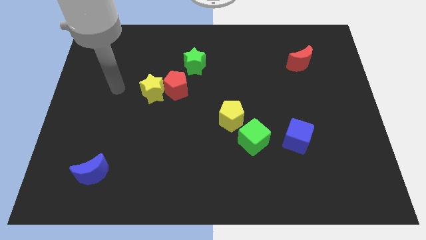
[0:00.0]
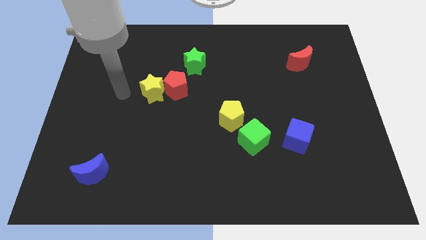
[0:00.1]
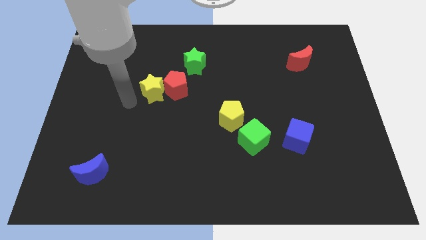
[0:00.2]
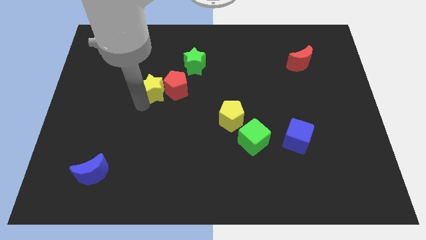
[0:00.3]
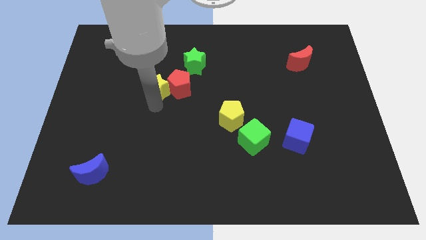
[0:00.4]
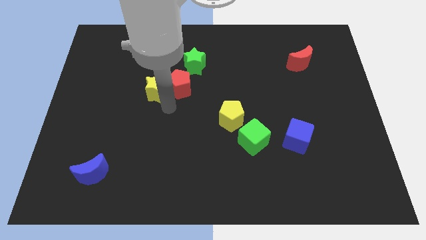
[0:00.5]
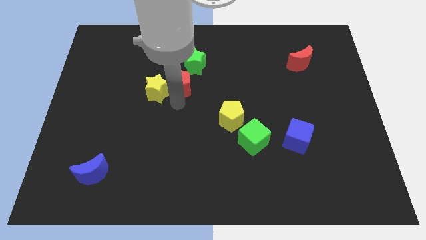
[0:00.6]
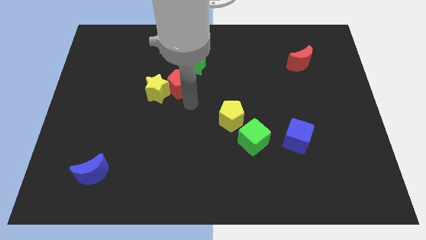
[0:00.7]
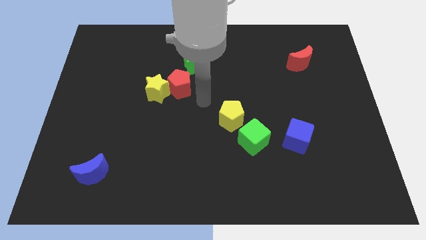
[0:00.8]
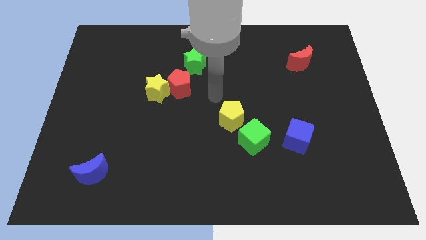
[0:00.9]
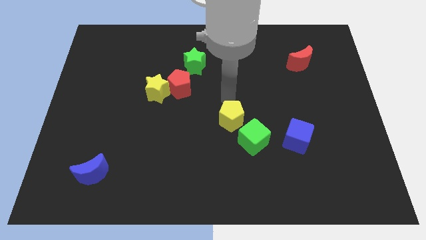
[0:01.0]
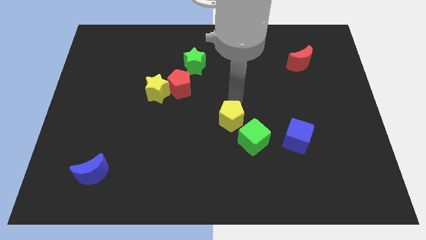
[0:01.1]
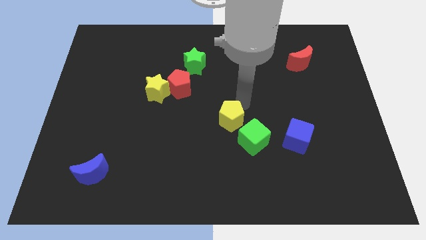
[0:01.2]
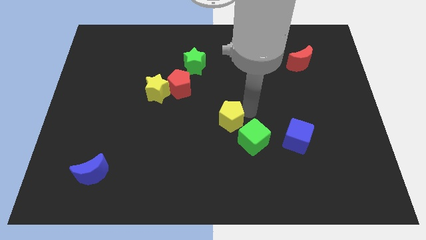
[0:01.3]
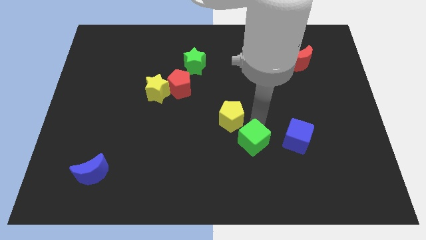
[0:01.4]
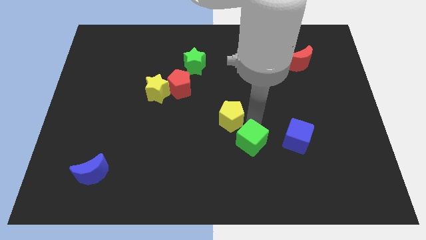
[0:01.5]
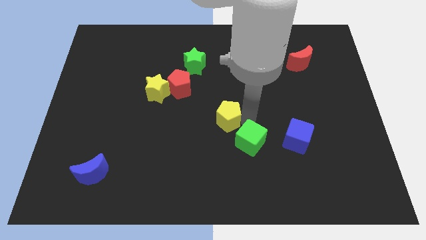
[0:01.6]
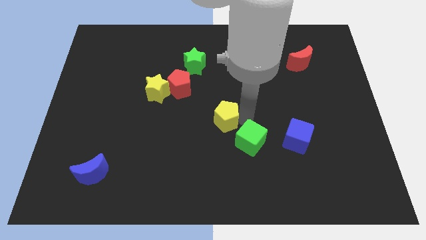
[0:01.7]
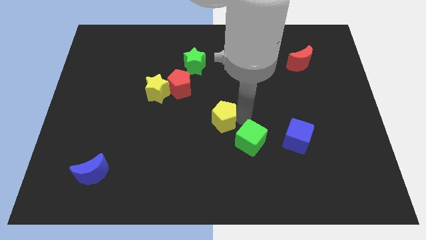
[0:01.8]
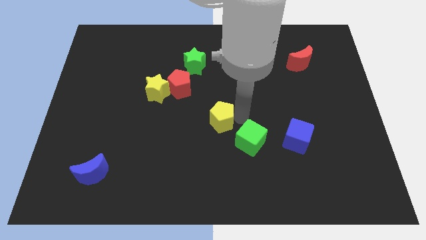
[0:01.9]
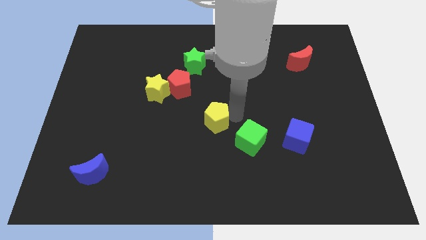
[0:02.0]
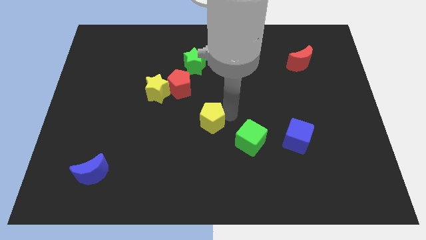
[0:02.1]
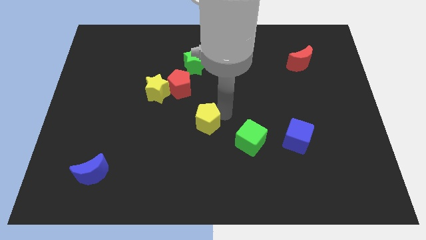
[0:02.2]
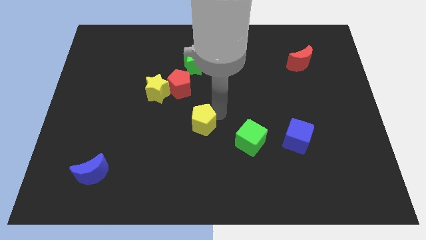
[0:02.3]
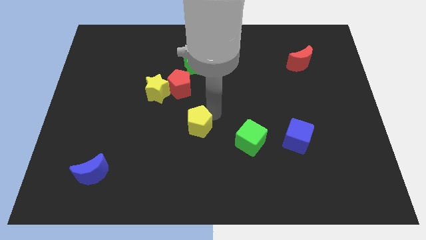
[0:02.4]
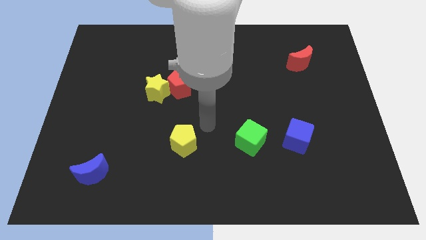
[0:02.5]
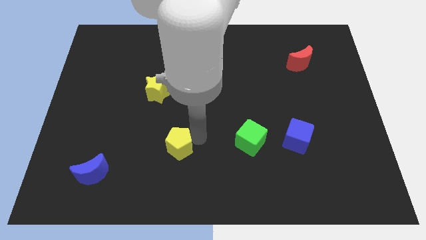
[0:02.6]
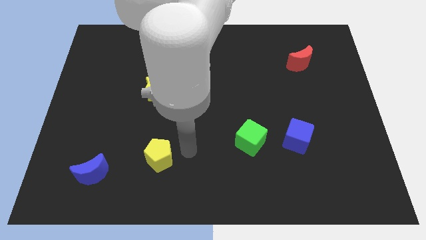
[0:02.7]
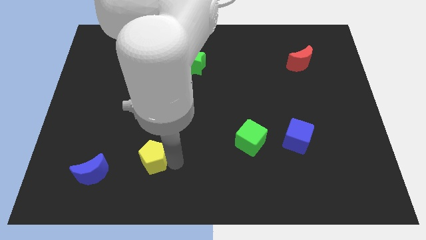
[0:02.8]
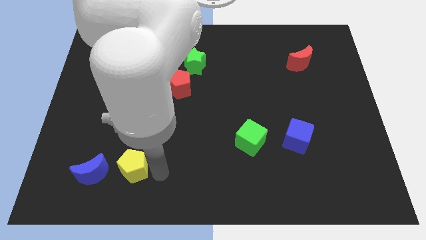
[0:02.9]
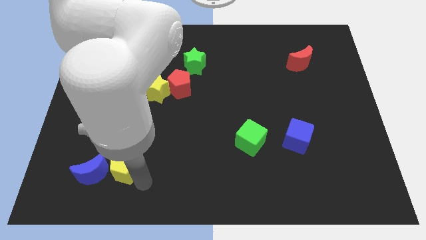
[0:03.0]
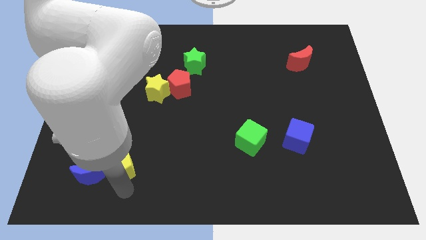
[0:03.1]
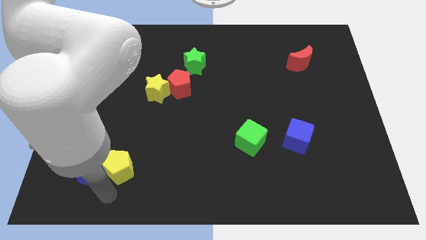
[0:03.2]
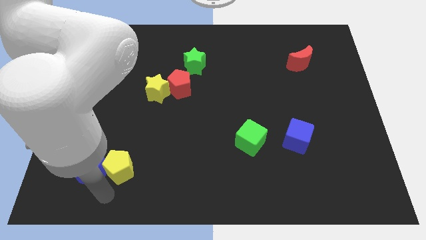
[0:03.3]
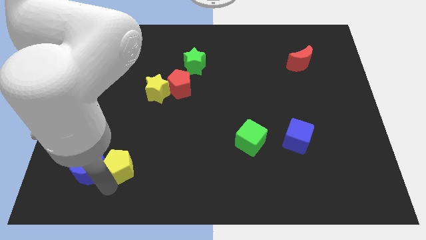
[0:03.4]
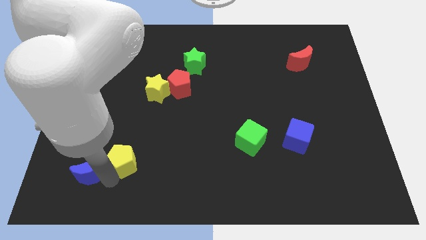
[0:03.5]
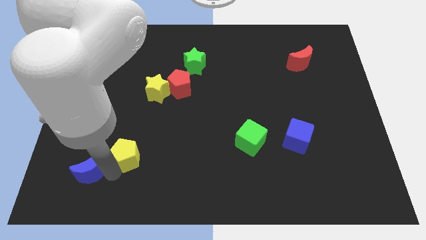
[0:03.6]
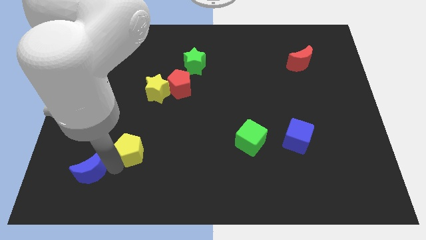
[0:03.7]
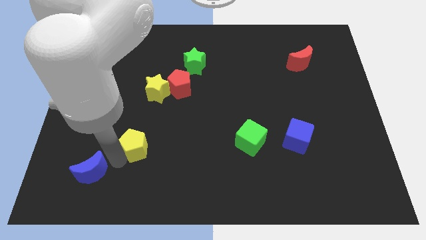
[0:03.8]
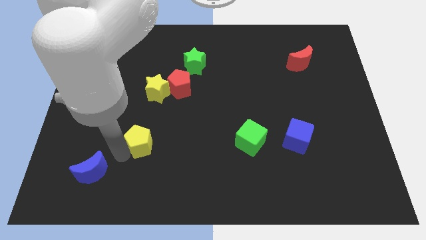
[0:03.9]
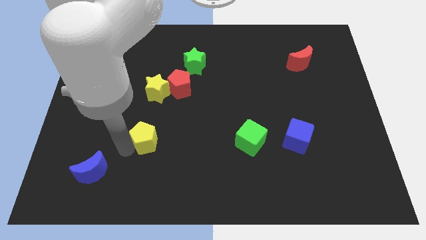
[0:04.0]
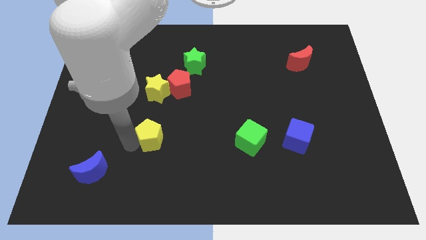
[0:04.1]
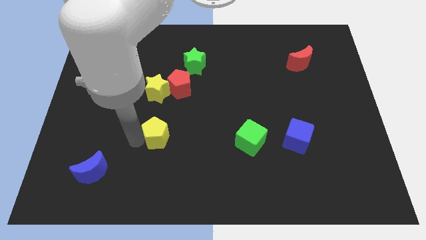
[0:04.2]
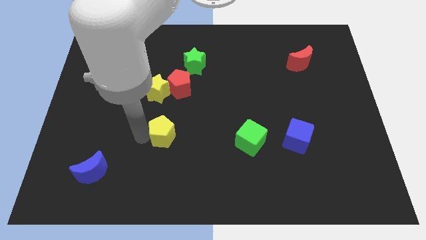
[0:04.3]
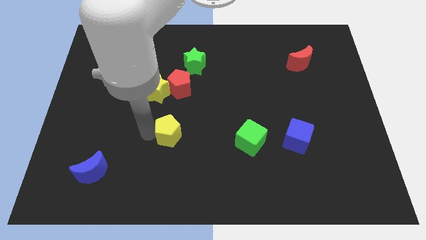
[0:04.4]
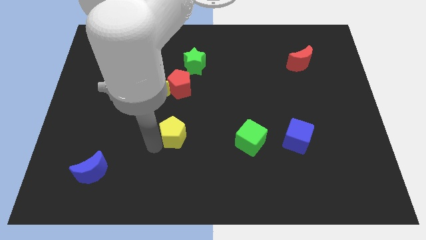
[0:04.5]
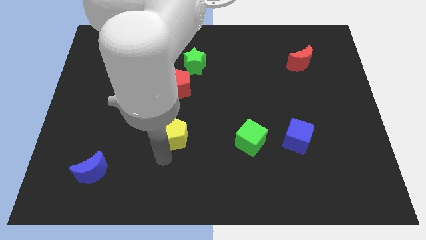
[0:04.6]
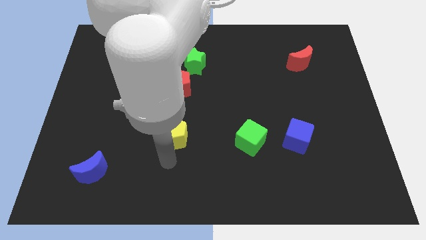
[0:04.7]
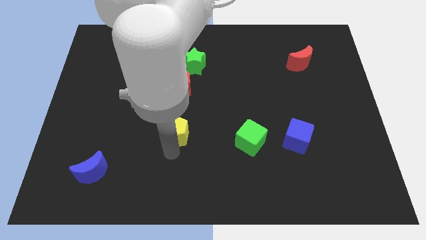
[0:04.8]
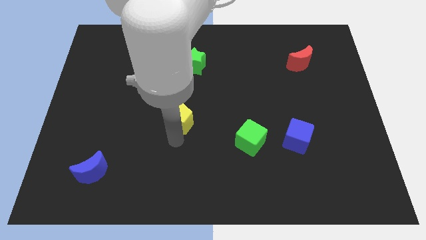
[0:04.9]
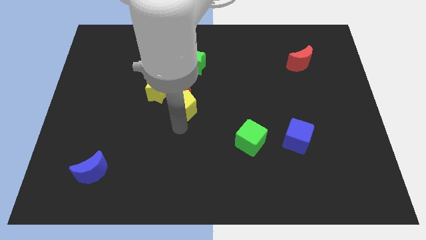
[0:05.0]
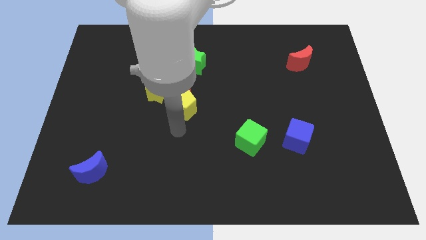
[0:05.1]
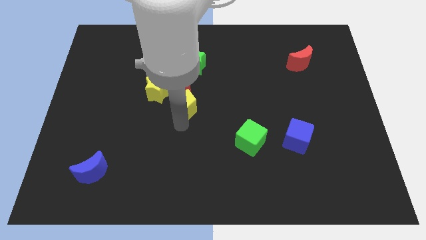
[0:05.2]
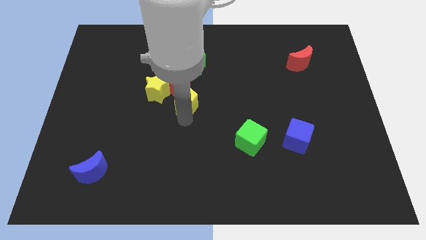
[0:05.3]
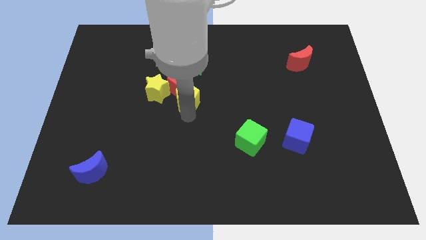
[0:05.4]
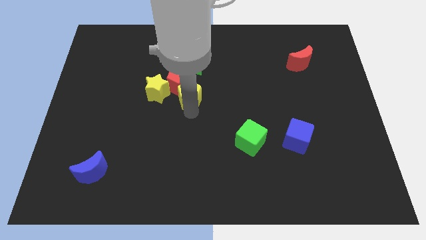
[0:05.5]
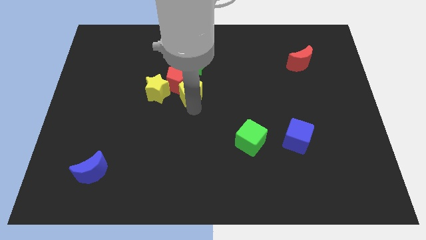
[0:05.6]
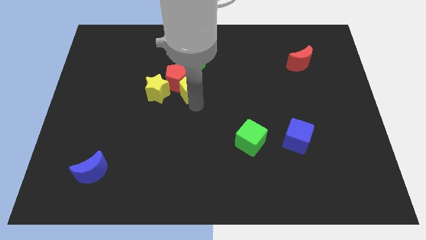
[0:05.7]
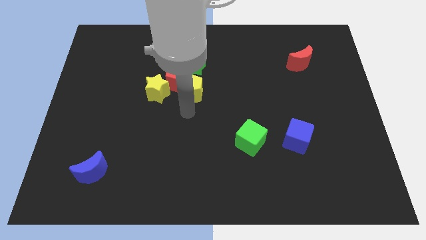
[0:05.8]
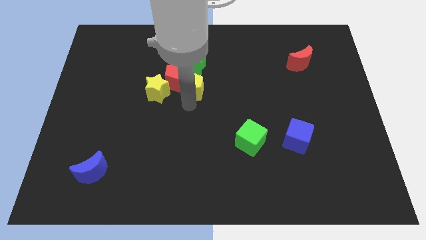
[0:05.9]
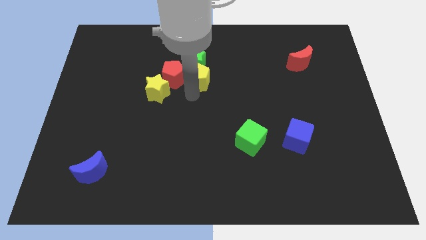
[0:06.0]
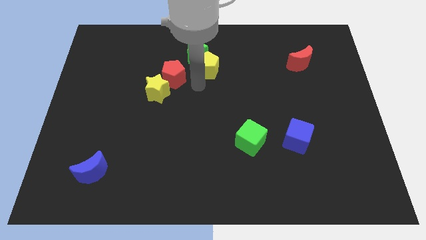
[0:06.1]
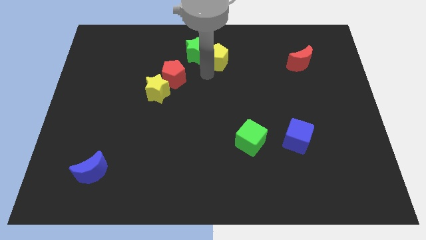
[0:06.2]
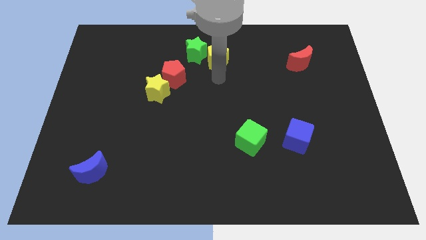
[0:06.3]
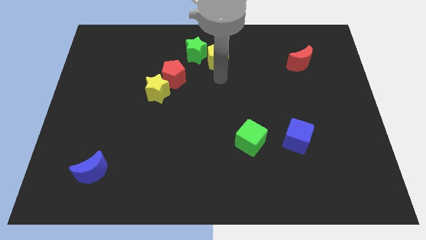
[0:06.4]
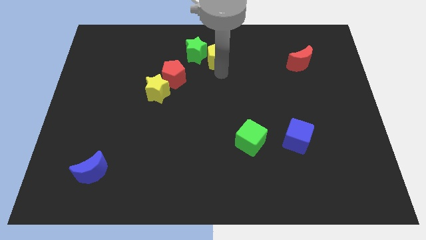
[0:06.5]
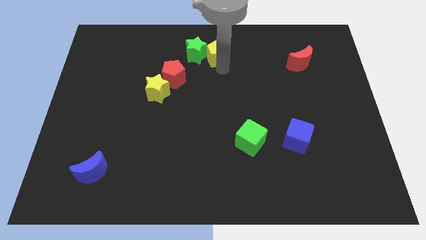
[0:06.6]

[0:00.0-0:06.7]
move the yellow pentagon to the towards your base

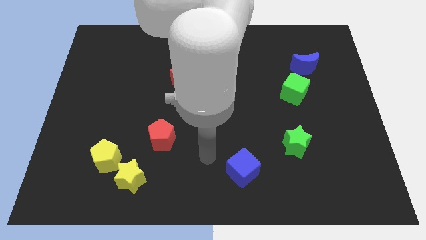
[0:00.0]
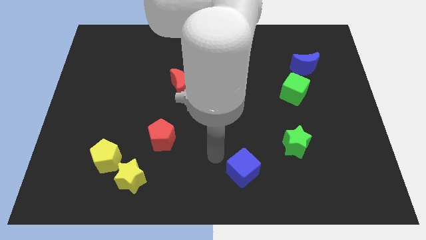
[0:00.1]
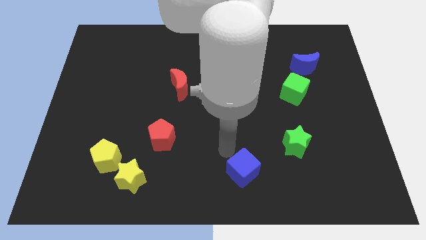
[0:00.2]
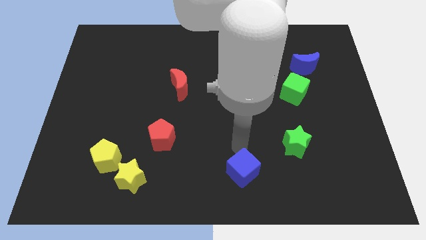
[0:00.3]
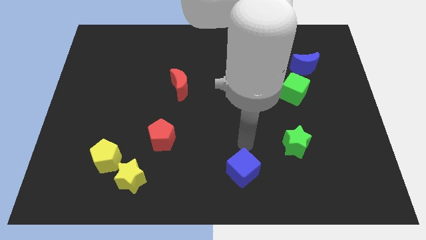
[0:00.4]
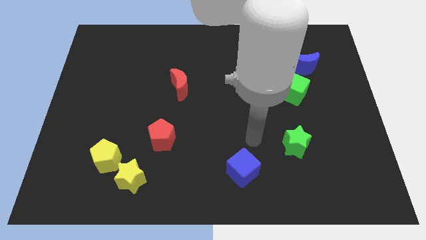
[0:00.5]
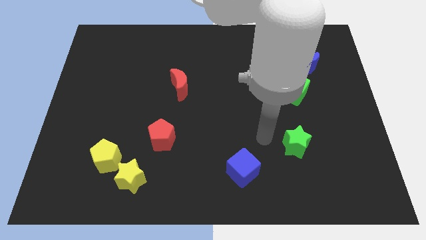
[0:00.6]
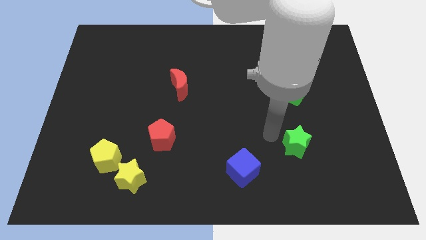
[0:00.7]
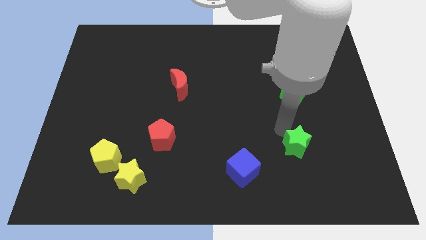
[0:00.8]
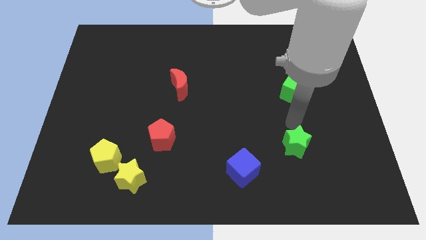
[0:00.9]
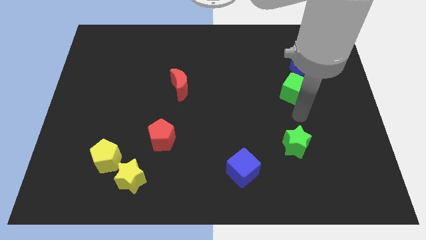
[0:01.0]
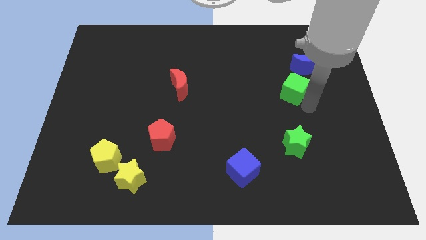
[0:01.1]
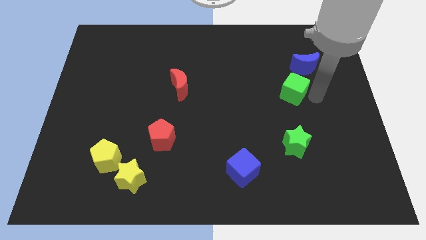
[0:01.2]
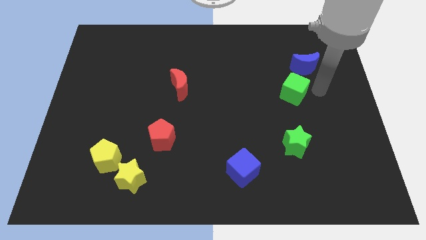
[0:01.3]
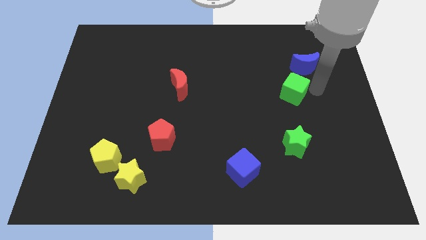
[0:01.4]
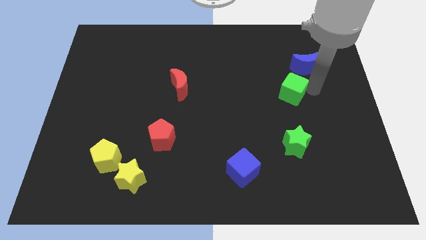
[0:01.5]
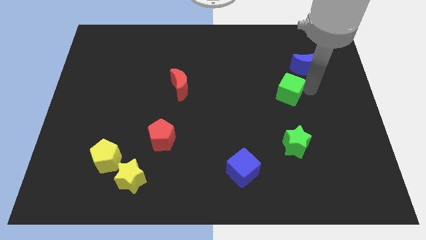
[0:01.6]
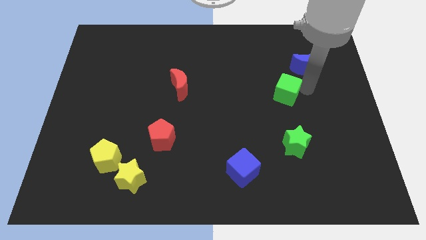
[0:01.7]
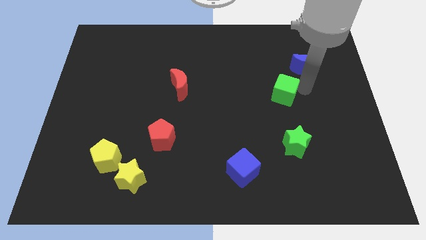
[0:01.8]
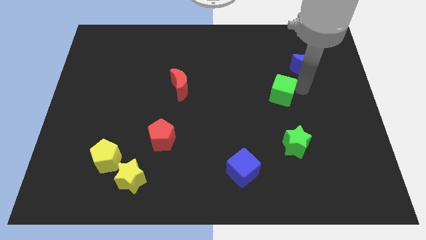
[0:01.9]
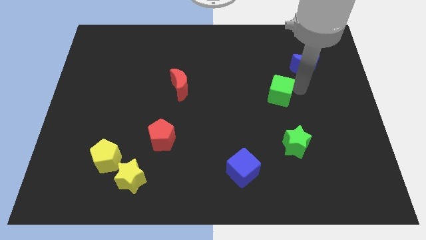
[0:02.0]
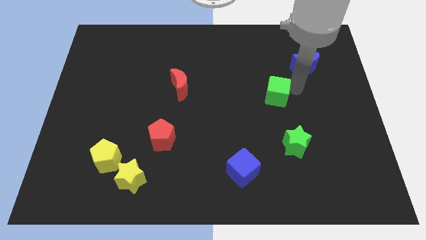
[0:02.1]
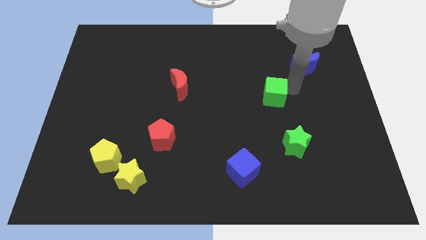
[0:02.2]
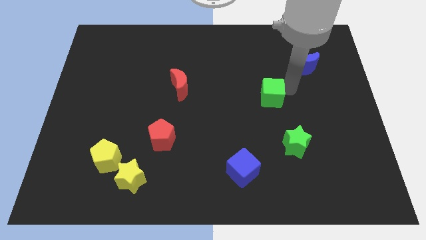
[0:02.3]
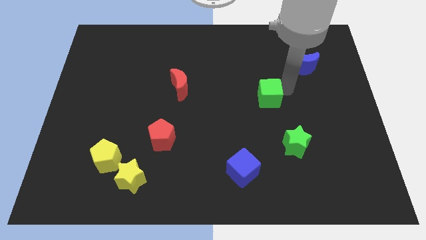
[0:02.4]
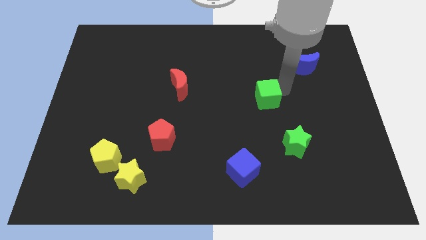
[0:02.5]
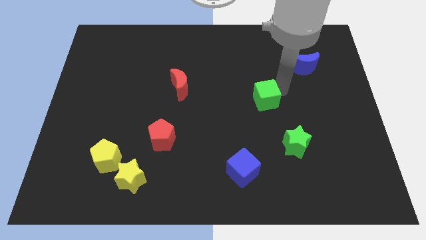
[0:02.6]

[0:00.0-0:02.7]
move the green cube to the center
